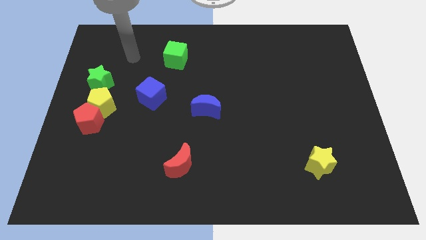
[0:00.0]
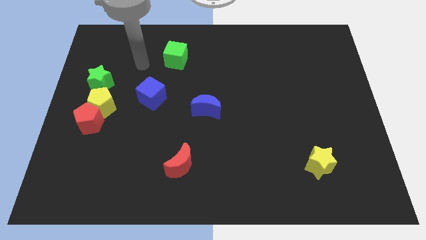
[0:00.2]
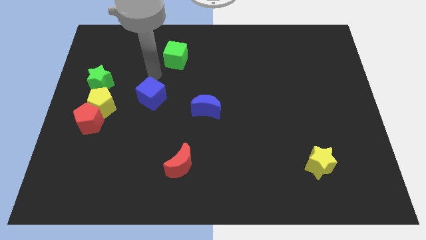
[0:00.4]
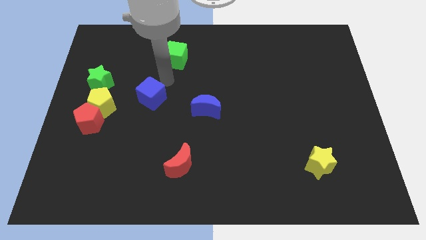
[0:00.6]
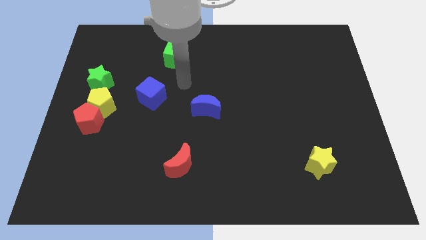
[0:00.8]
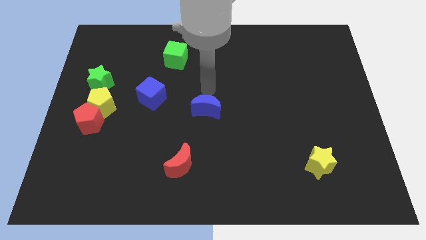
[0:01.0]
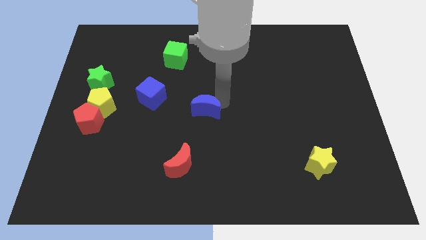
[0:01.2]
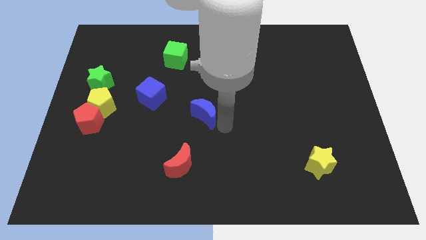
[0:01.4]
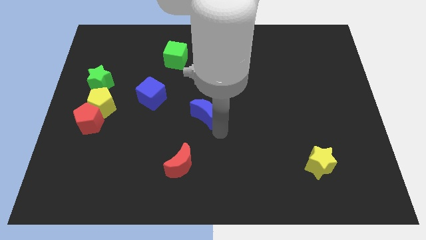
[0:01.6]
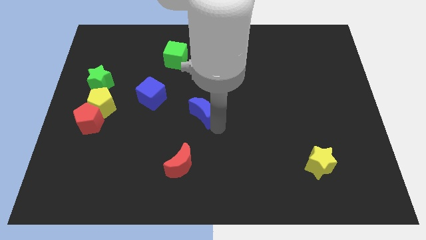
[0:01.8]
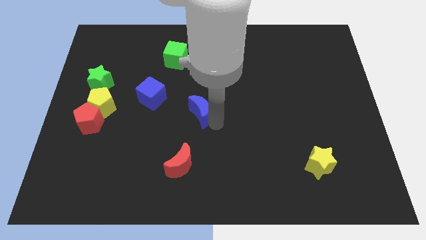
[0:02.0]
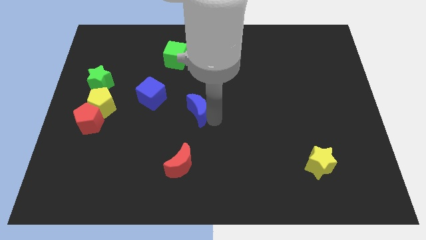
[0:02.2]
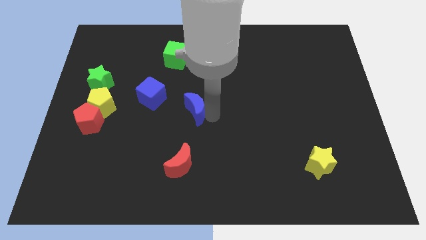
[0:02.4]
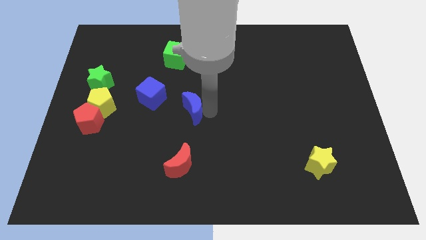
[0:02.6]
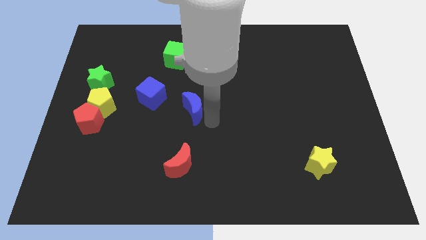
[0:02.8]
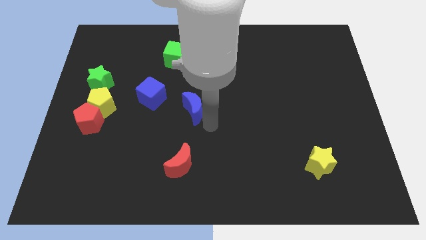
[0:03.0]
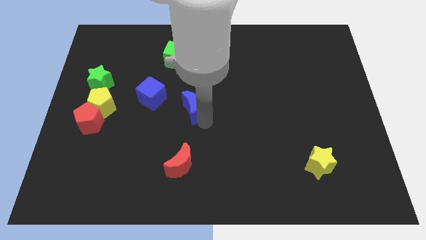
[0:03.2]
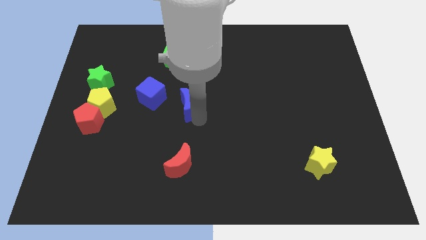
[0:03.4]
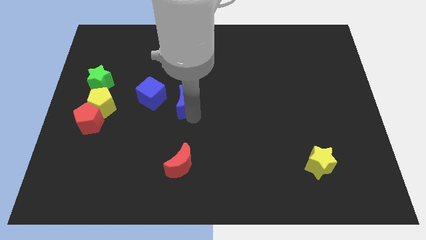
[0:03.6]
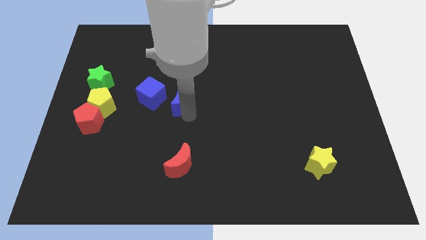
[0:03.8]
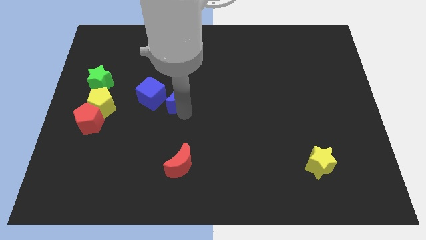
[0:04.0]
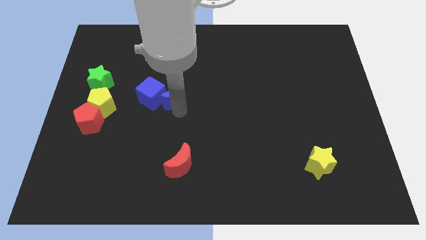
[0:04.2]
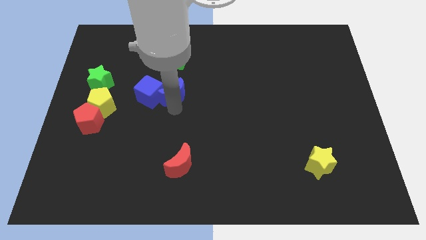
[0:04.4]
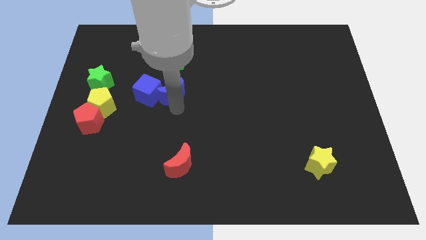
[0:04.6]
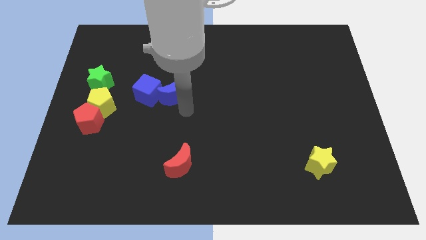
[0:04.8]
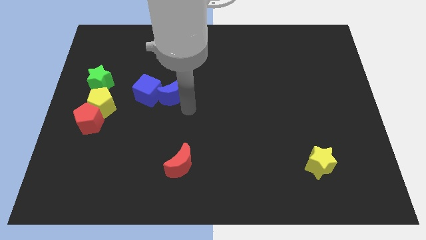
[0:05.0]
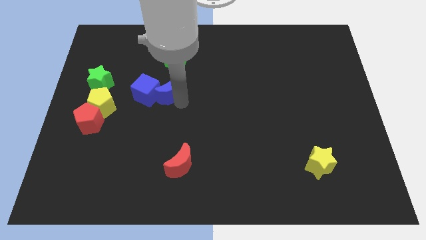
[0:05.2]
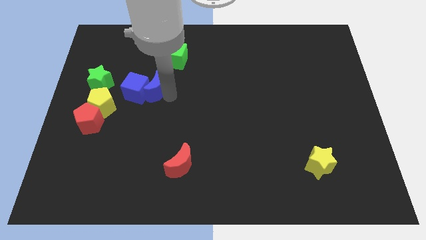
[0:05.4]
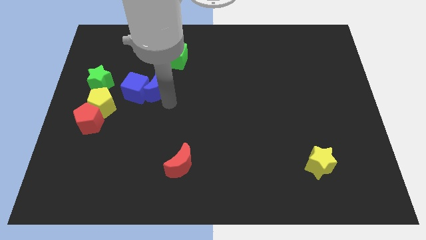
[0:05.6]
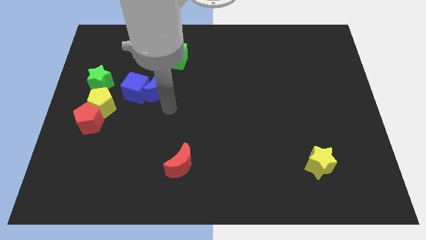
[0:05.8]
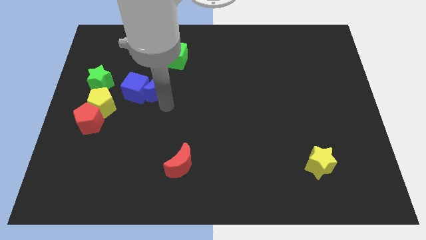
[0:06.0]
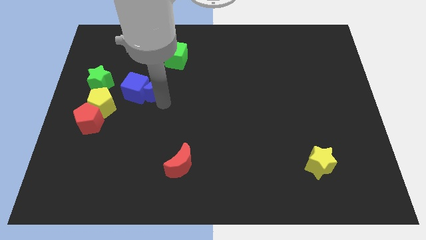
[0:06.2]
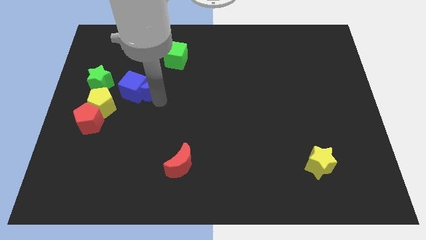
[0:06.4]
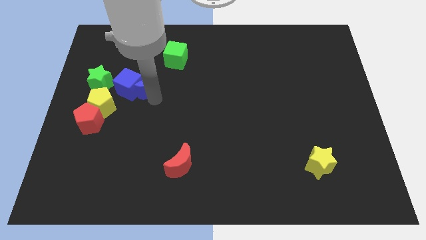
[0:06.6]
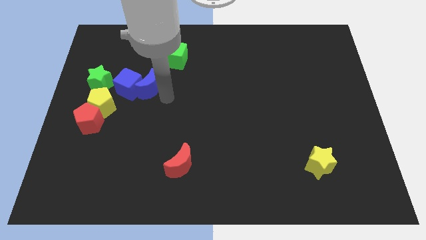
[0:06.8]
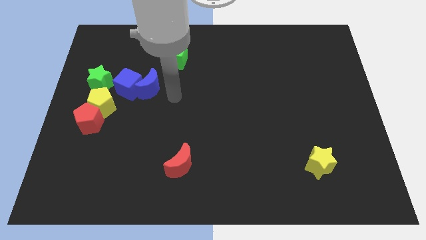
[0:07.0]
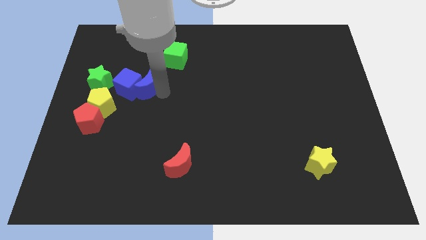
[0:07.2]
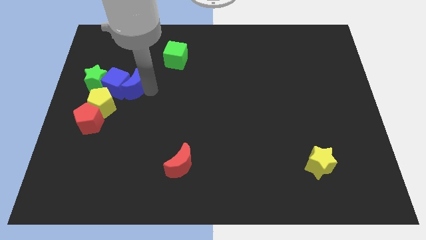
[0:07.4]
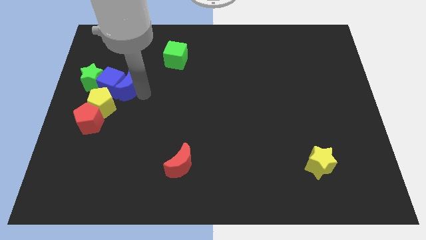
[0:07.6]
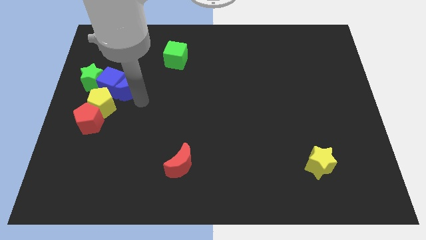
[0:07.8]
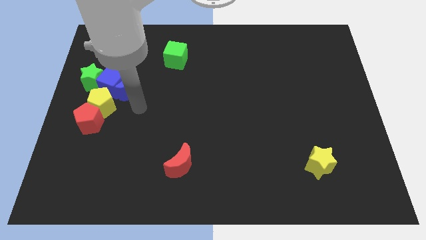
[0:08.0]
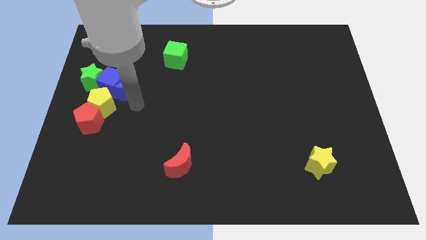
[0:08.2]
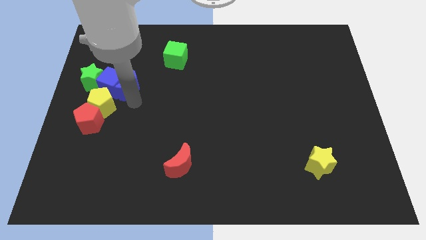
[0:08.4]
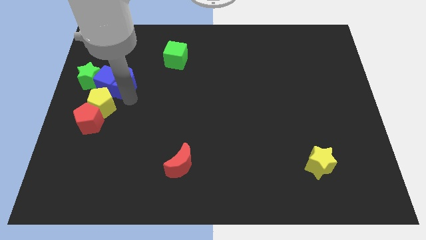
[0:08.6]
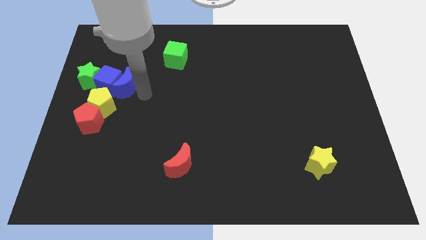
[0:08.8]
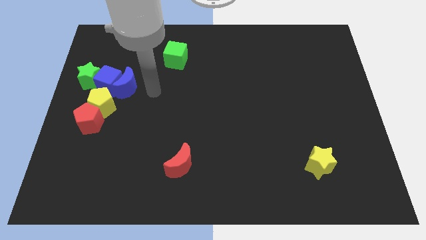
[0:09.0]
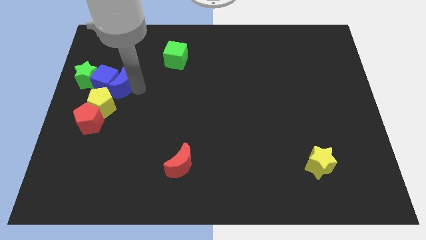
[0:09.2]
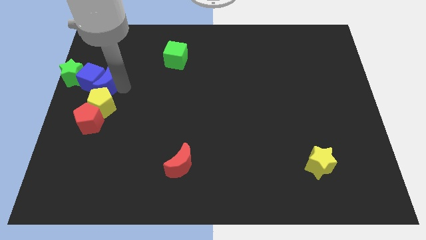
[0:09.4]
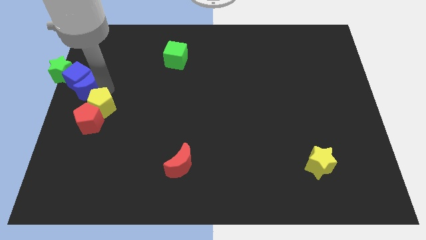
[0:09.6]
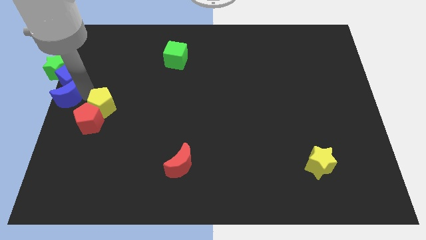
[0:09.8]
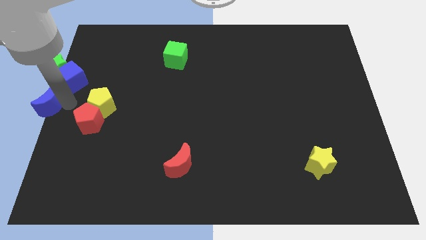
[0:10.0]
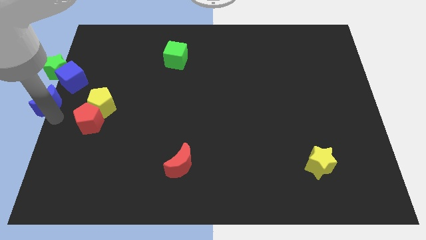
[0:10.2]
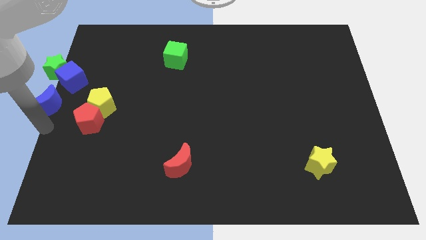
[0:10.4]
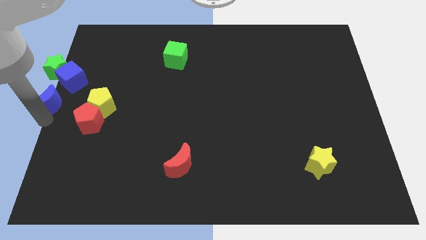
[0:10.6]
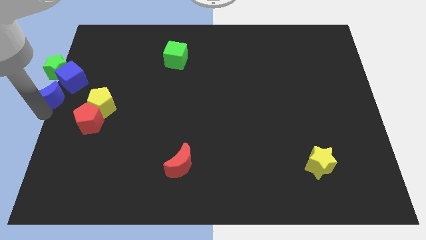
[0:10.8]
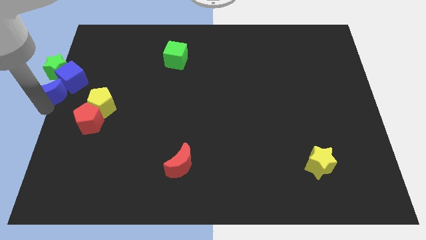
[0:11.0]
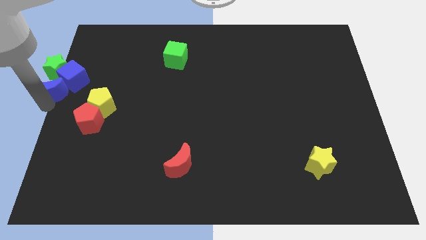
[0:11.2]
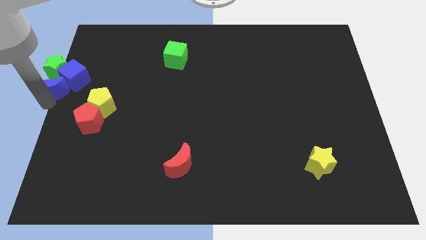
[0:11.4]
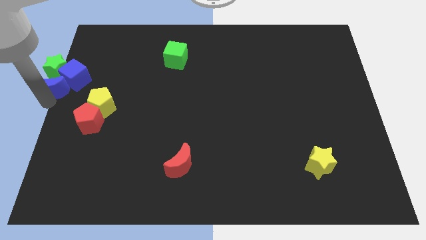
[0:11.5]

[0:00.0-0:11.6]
move the blue moon next to the green star

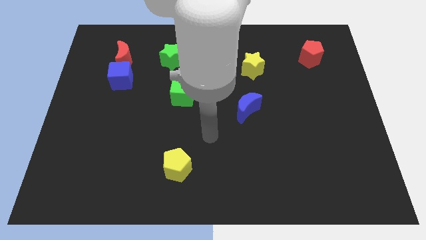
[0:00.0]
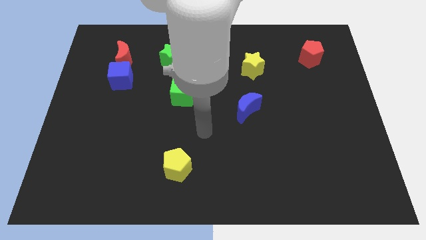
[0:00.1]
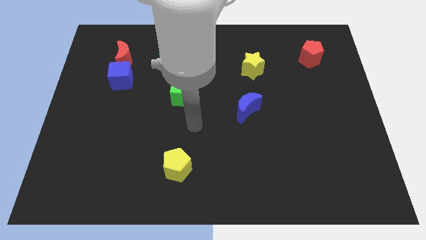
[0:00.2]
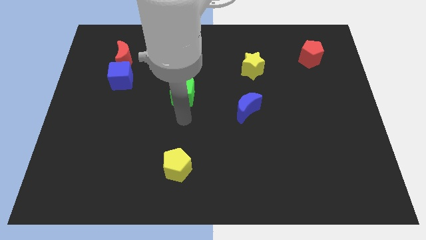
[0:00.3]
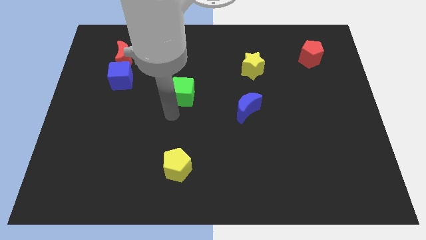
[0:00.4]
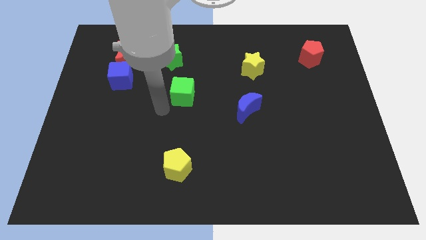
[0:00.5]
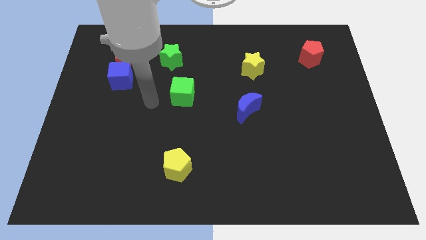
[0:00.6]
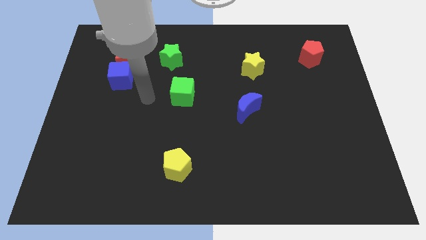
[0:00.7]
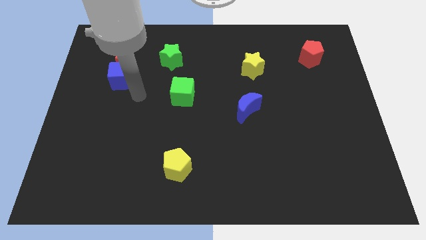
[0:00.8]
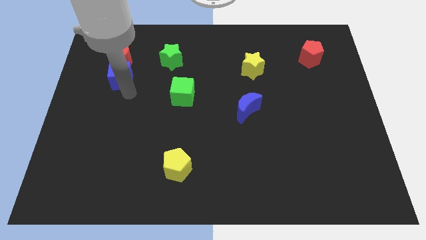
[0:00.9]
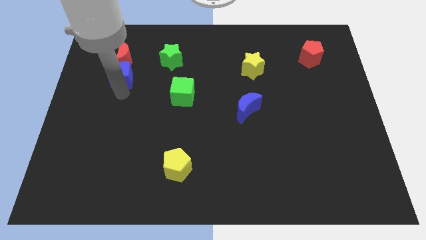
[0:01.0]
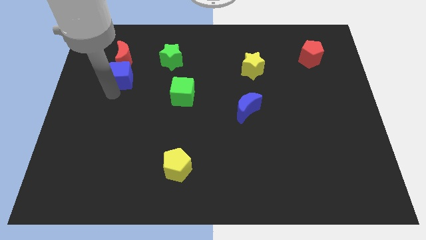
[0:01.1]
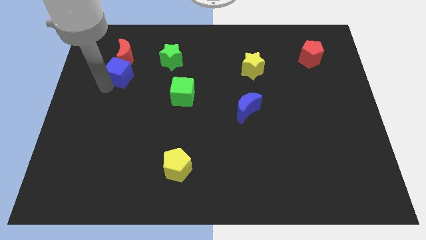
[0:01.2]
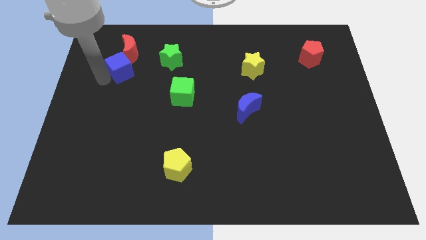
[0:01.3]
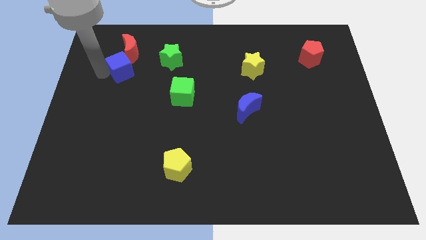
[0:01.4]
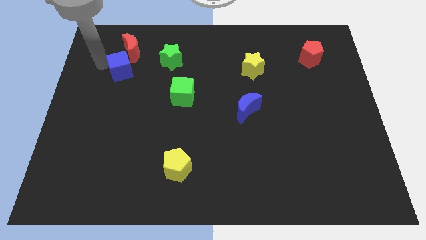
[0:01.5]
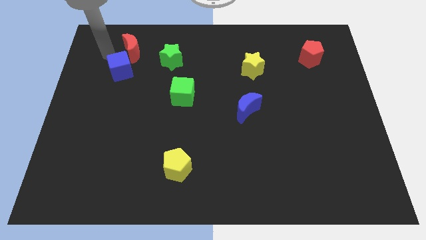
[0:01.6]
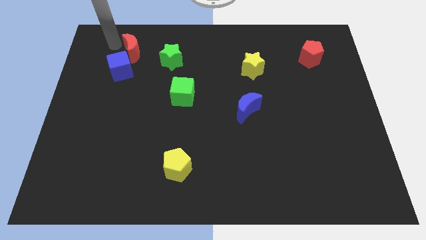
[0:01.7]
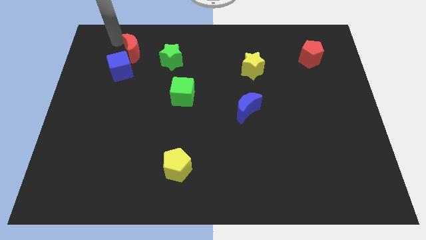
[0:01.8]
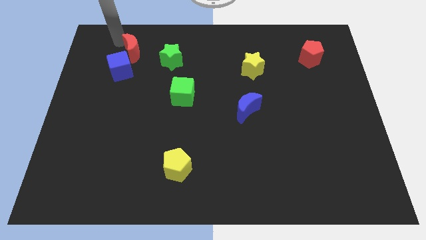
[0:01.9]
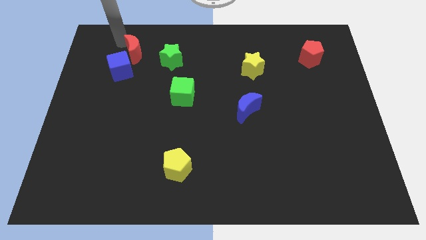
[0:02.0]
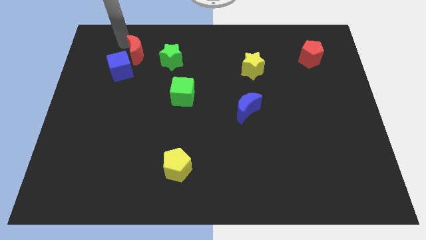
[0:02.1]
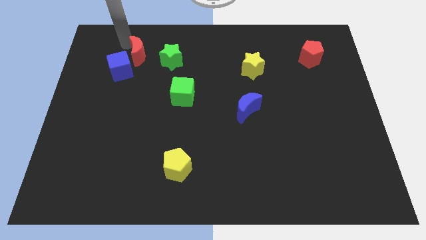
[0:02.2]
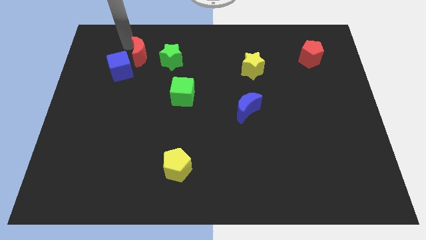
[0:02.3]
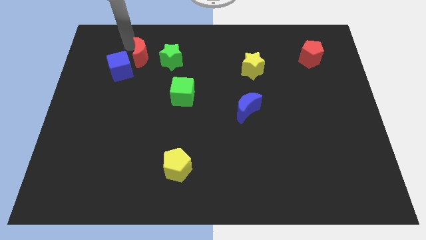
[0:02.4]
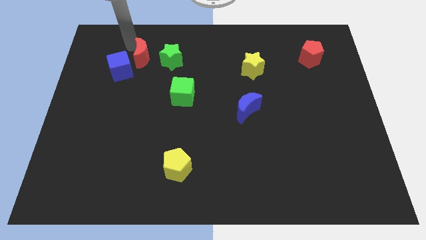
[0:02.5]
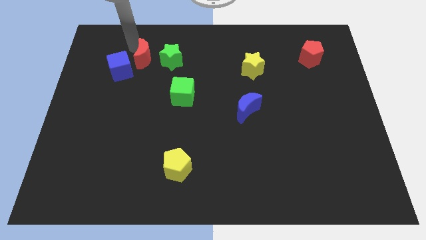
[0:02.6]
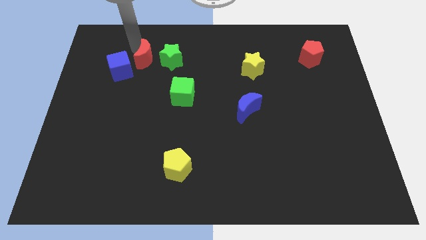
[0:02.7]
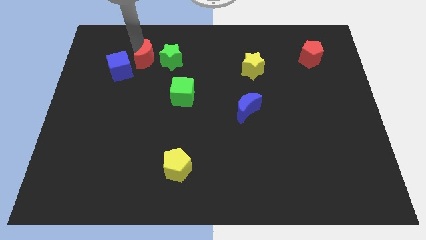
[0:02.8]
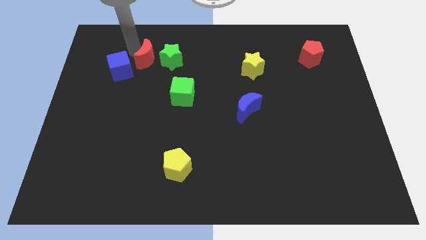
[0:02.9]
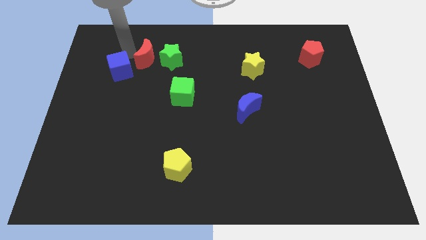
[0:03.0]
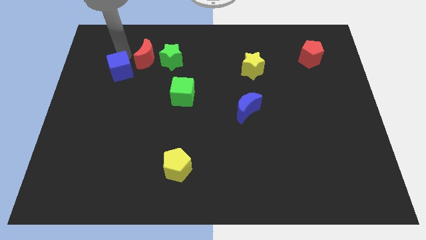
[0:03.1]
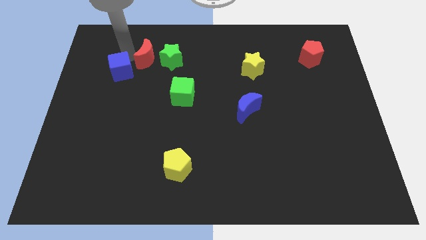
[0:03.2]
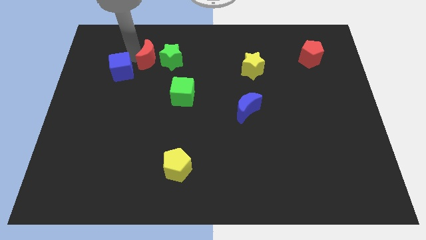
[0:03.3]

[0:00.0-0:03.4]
slide the red moon to the green star
